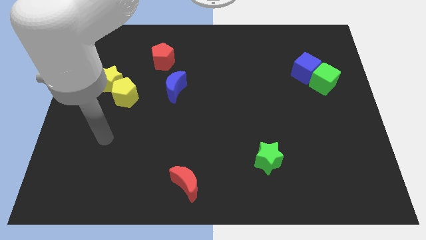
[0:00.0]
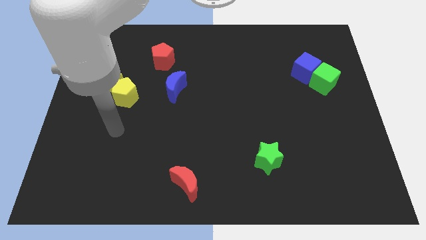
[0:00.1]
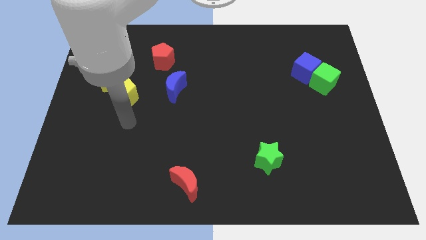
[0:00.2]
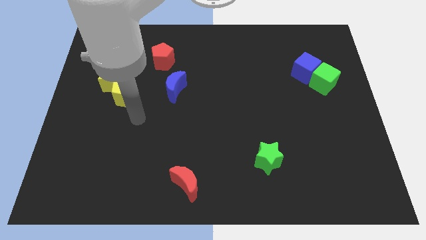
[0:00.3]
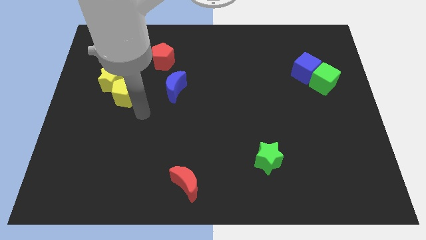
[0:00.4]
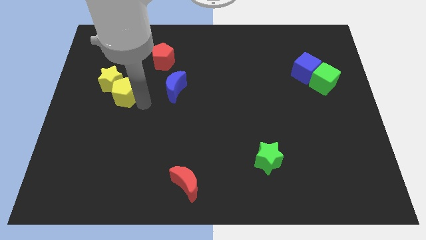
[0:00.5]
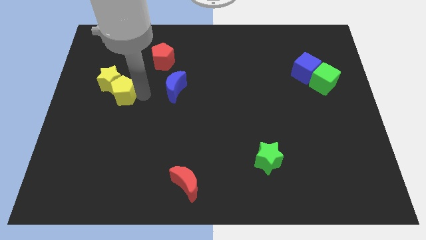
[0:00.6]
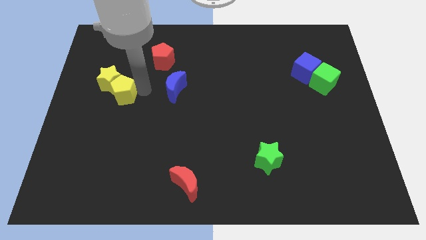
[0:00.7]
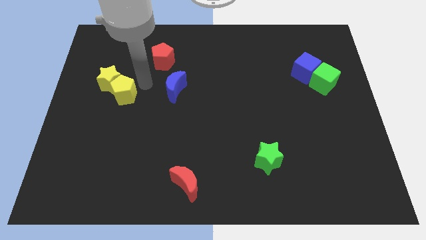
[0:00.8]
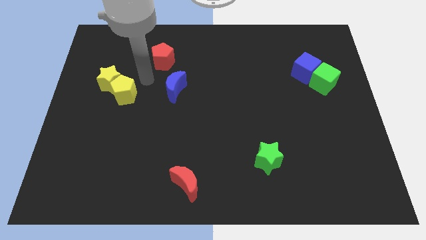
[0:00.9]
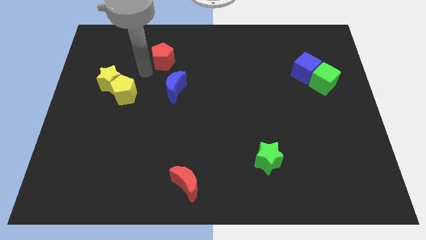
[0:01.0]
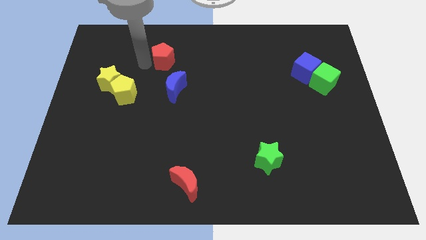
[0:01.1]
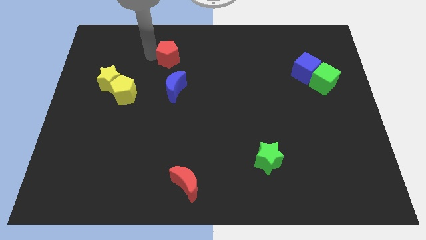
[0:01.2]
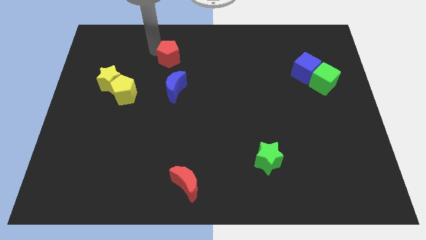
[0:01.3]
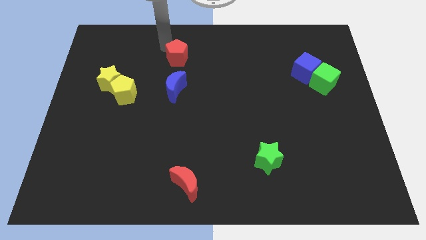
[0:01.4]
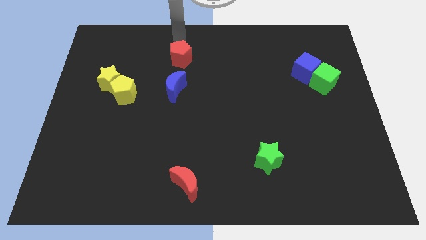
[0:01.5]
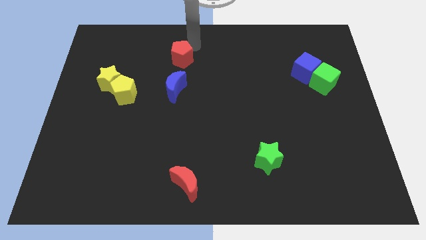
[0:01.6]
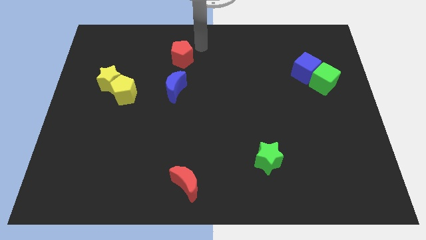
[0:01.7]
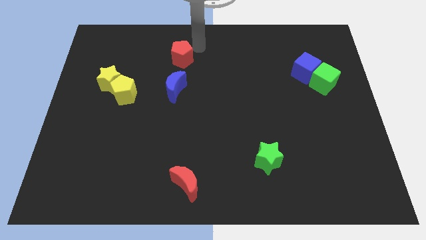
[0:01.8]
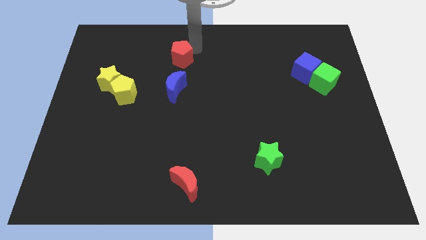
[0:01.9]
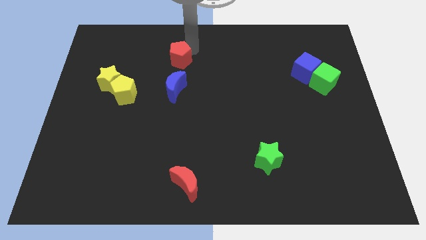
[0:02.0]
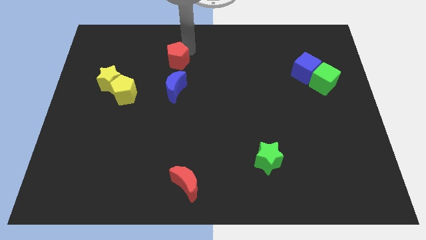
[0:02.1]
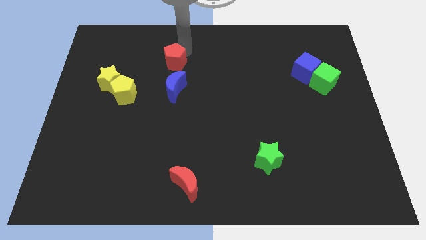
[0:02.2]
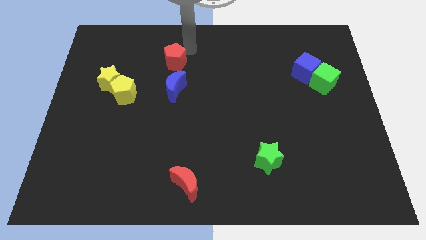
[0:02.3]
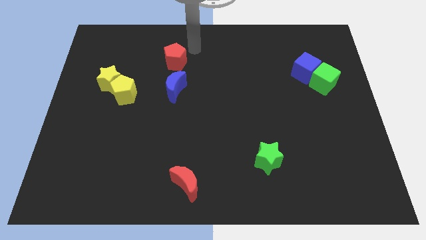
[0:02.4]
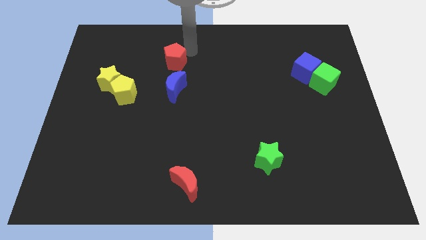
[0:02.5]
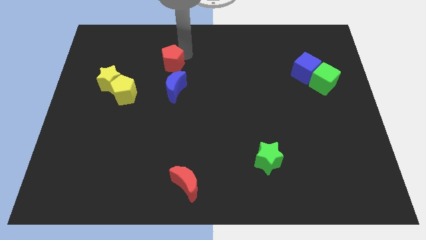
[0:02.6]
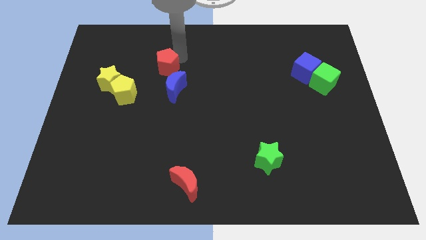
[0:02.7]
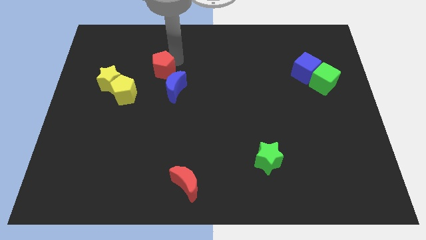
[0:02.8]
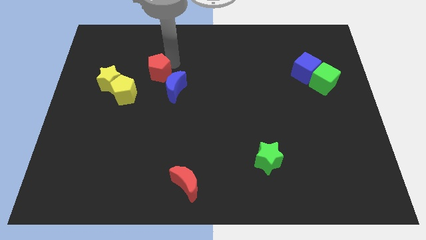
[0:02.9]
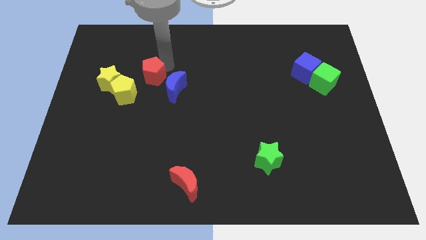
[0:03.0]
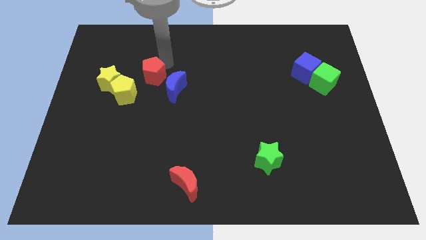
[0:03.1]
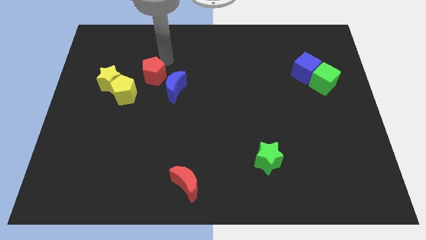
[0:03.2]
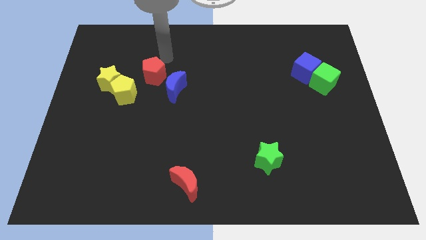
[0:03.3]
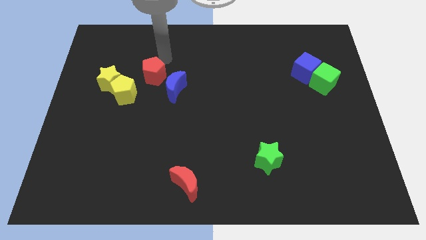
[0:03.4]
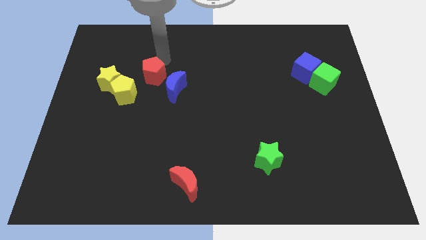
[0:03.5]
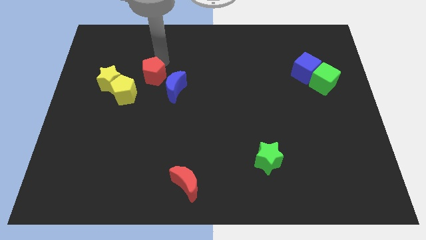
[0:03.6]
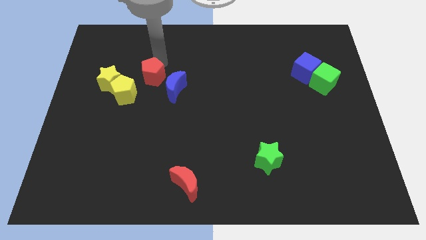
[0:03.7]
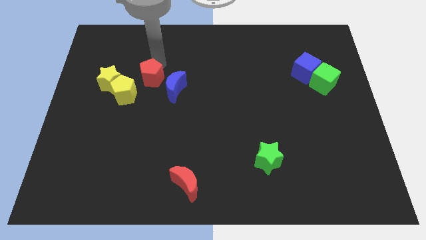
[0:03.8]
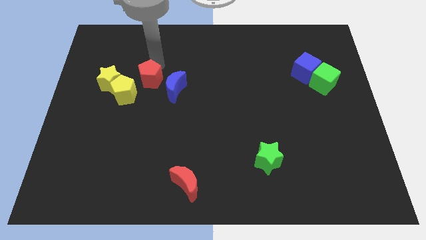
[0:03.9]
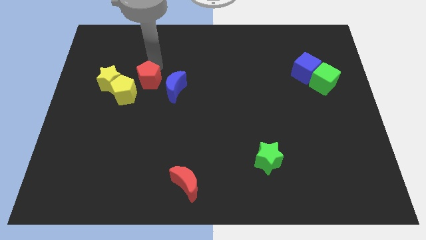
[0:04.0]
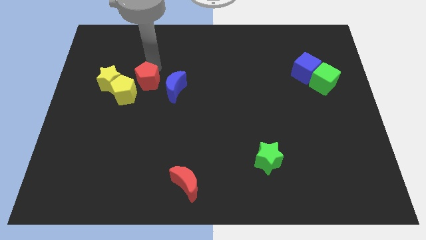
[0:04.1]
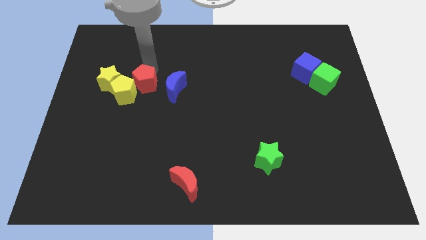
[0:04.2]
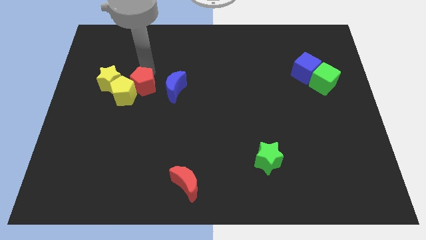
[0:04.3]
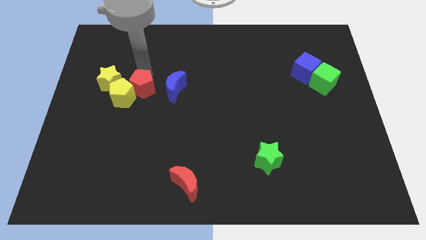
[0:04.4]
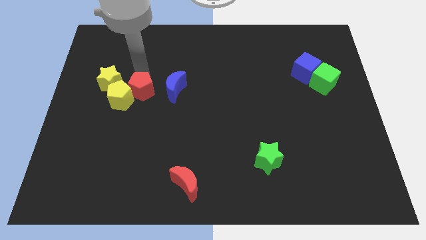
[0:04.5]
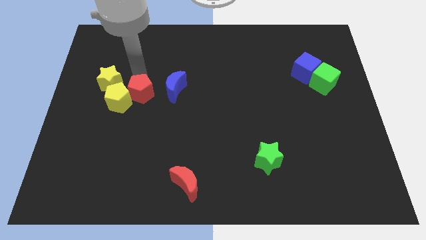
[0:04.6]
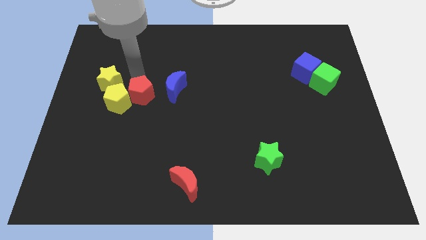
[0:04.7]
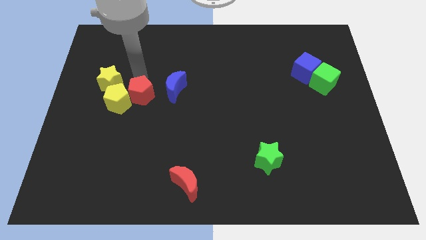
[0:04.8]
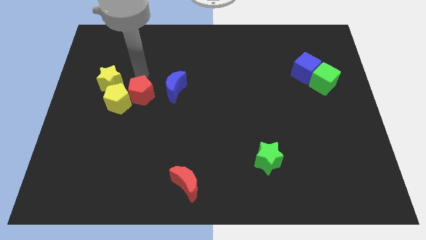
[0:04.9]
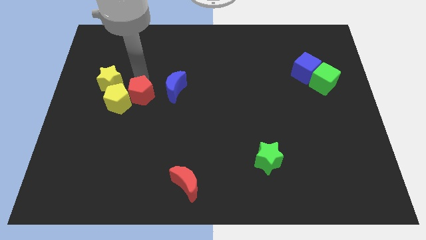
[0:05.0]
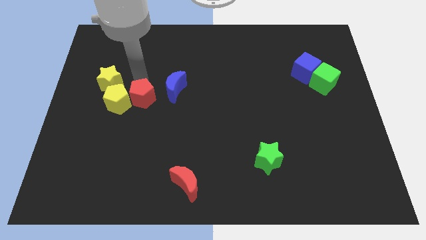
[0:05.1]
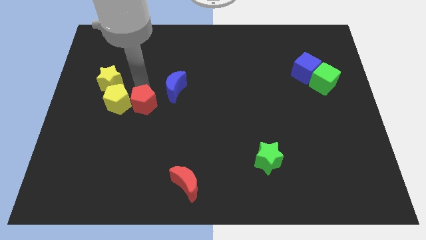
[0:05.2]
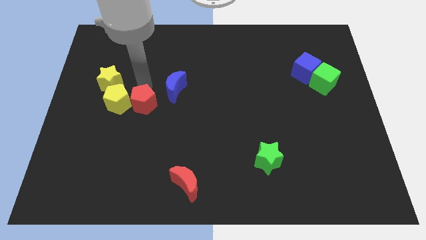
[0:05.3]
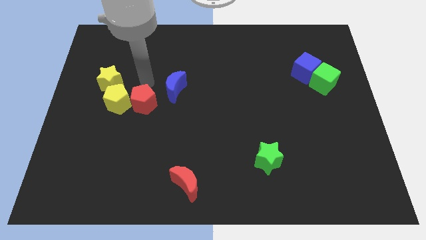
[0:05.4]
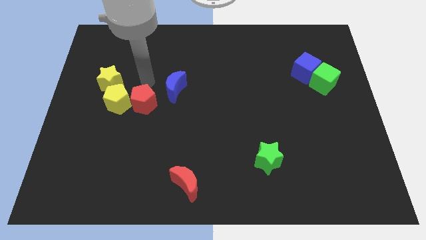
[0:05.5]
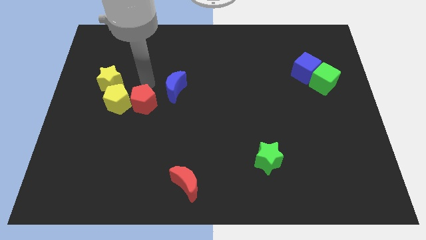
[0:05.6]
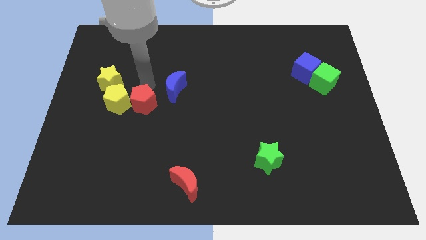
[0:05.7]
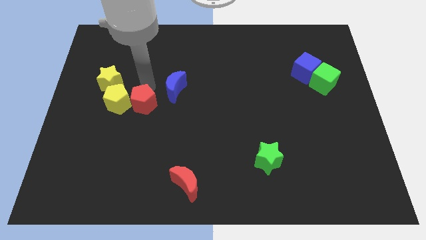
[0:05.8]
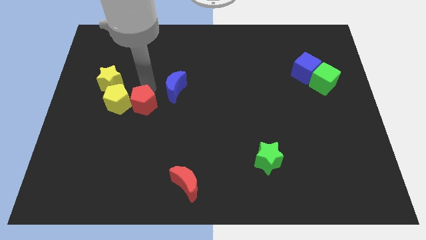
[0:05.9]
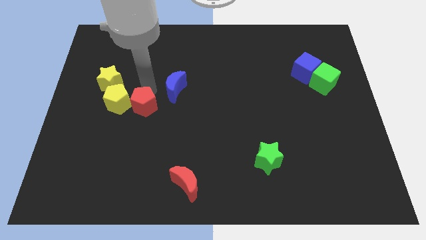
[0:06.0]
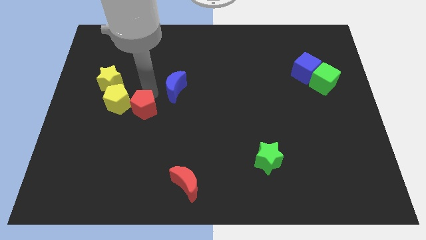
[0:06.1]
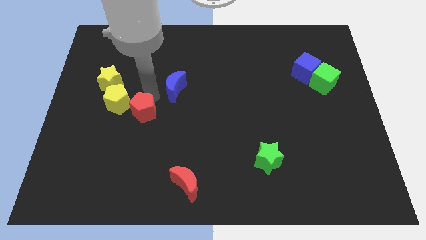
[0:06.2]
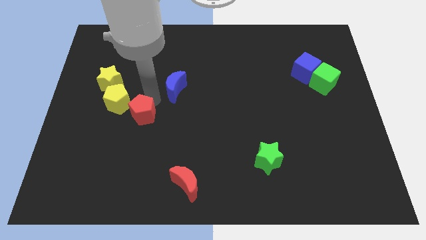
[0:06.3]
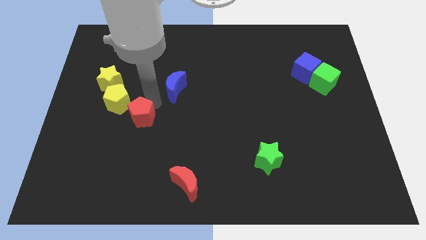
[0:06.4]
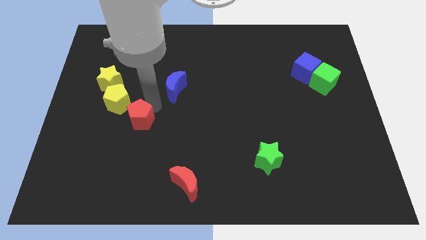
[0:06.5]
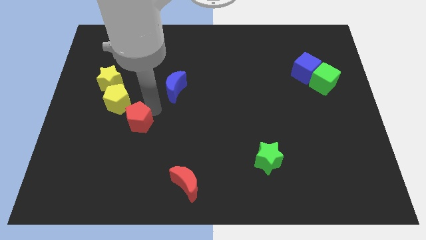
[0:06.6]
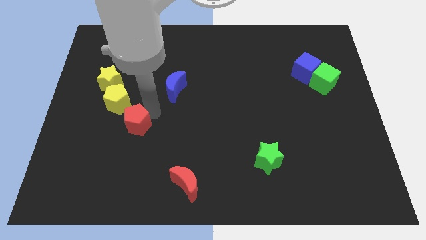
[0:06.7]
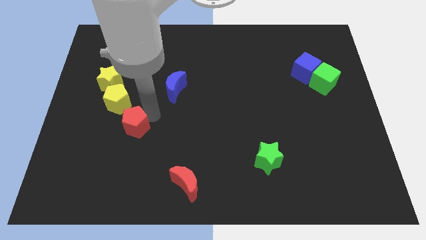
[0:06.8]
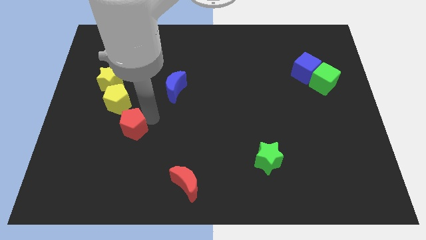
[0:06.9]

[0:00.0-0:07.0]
slide the red pentagon below the yellow pentagon
